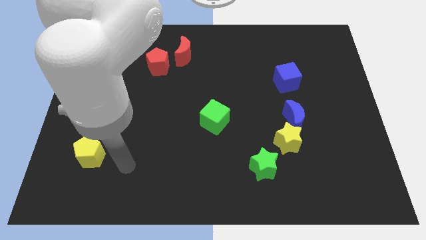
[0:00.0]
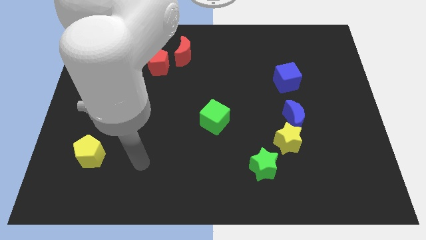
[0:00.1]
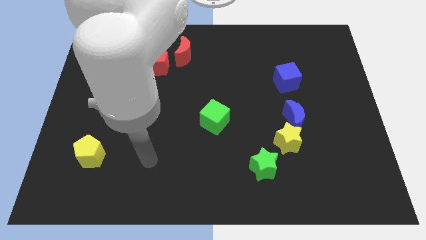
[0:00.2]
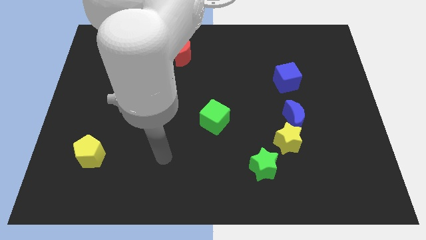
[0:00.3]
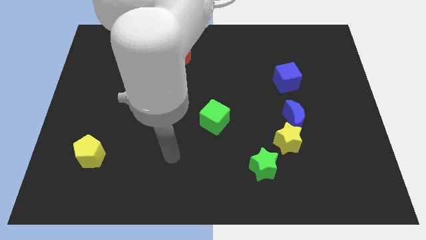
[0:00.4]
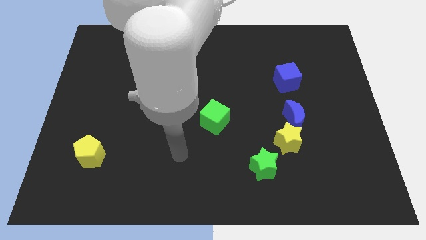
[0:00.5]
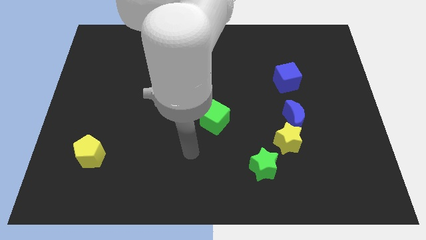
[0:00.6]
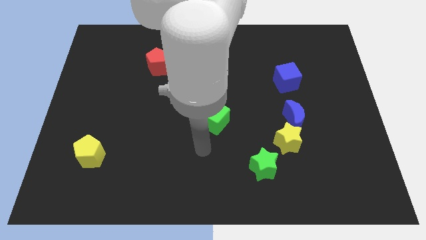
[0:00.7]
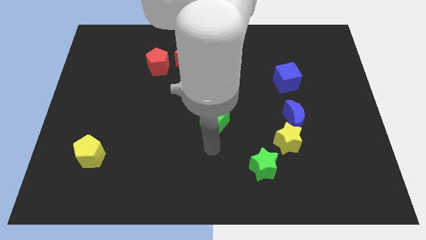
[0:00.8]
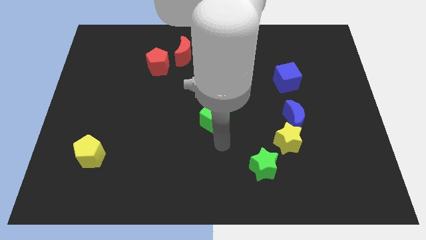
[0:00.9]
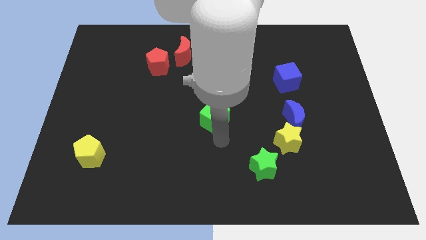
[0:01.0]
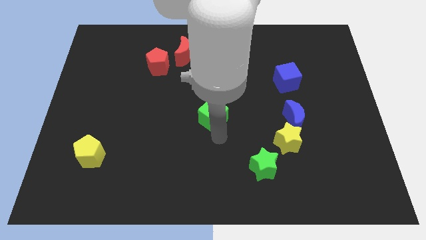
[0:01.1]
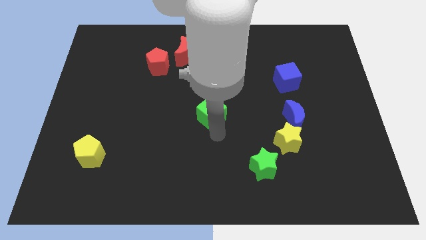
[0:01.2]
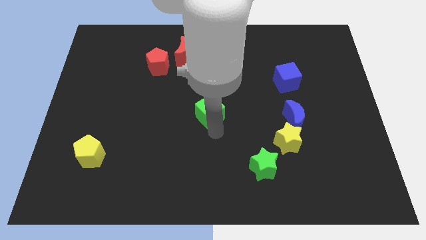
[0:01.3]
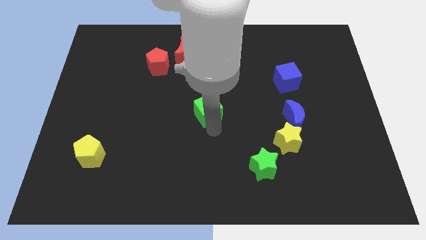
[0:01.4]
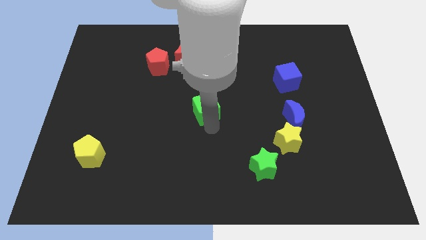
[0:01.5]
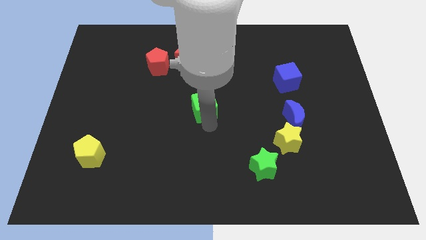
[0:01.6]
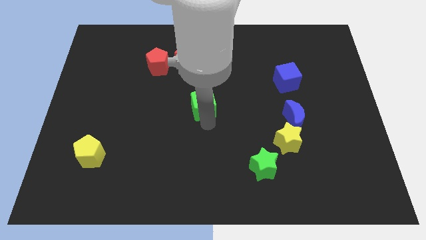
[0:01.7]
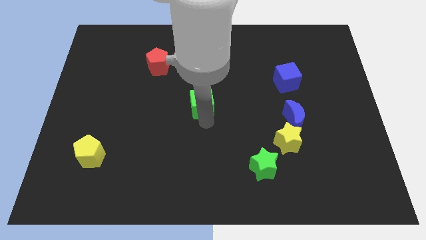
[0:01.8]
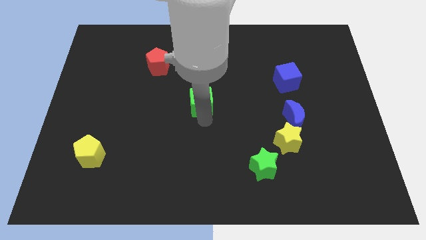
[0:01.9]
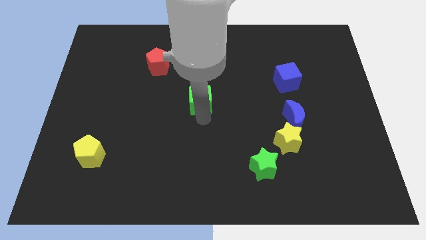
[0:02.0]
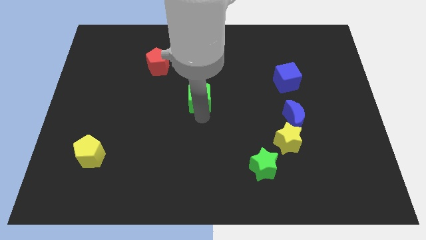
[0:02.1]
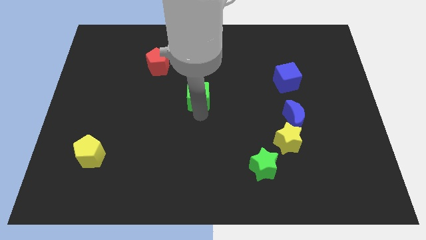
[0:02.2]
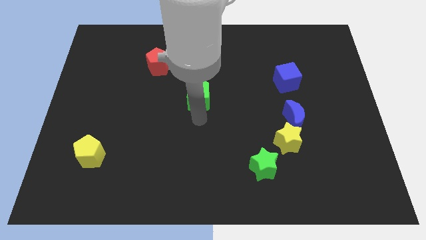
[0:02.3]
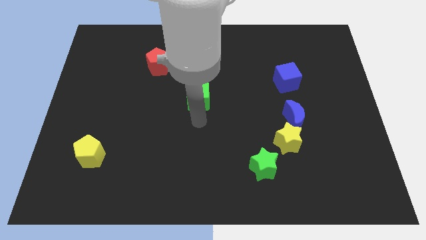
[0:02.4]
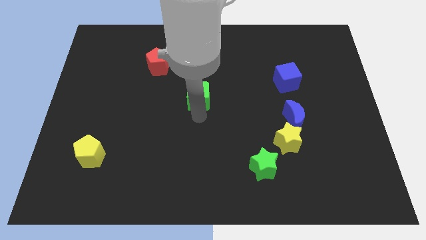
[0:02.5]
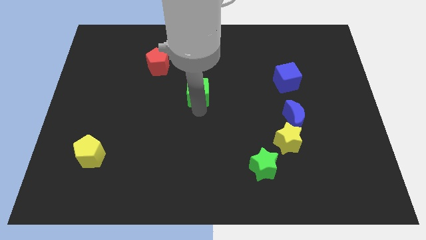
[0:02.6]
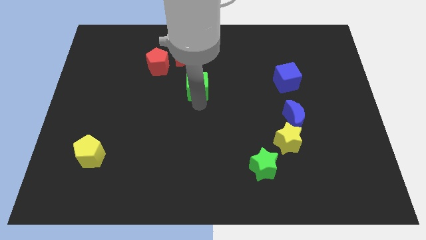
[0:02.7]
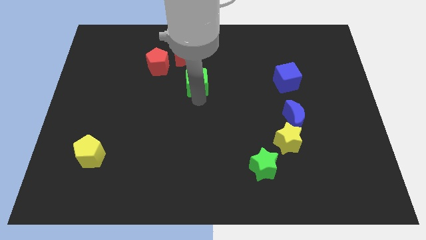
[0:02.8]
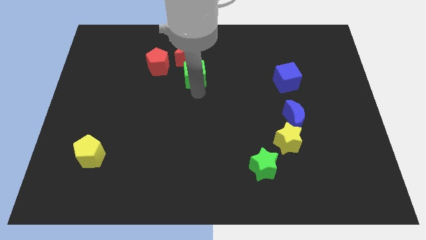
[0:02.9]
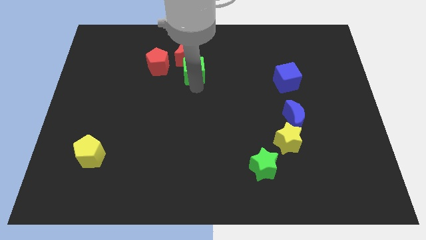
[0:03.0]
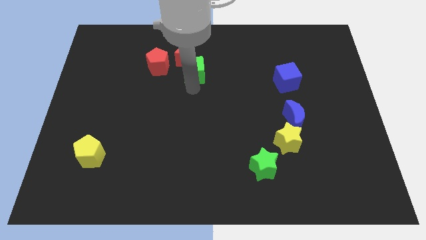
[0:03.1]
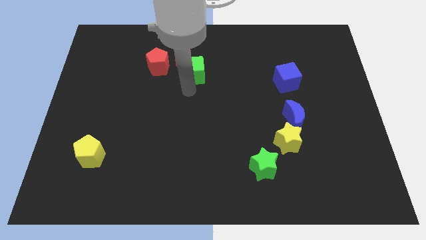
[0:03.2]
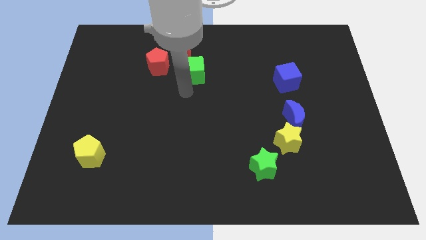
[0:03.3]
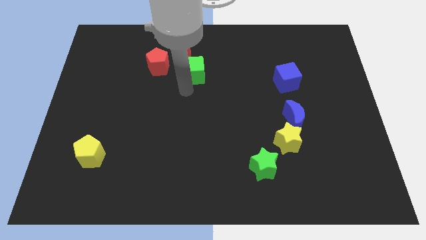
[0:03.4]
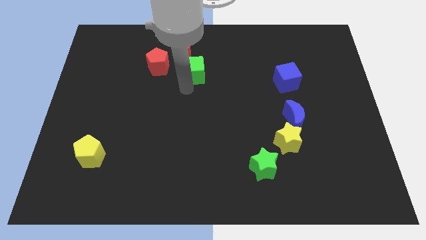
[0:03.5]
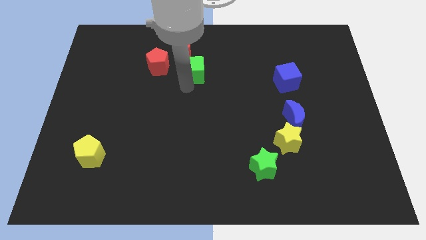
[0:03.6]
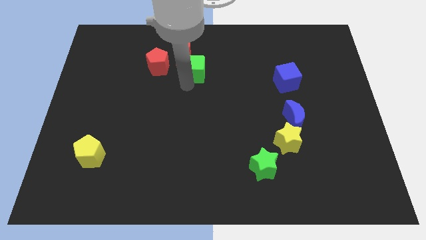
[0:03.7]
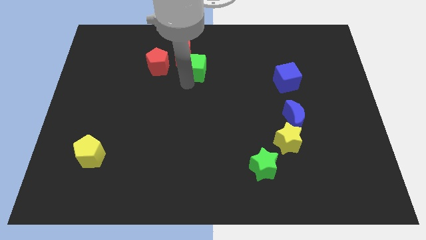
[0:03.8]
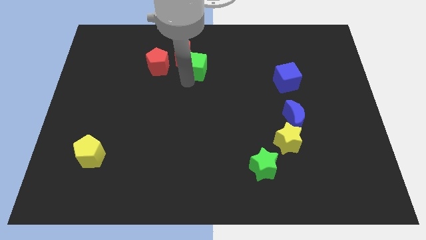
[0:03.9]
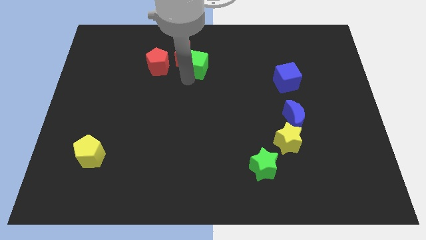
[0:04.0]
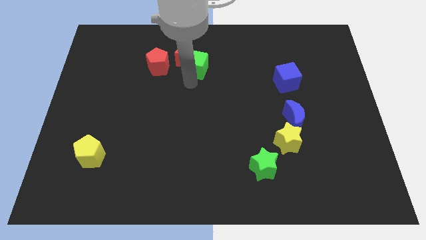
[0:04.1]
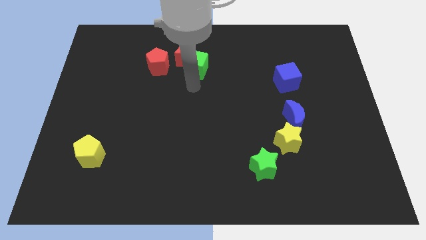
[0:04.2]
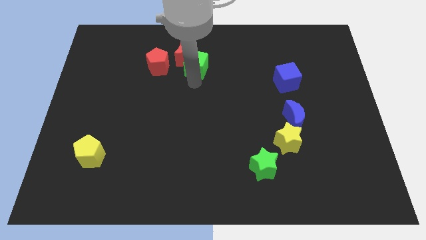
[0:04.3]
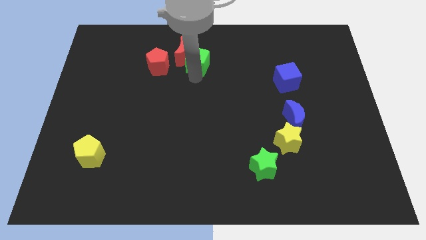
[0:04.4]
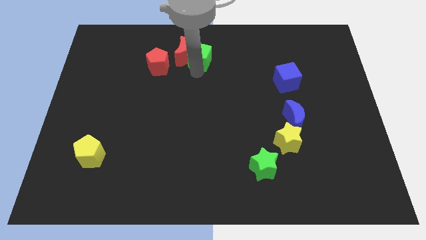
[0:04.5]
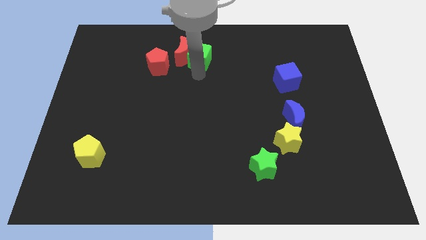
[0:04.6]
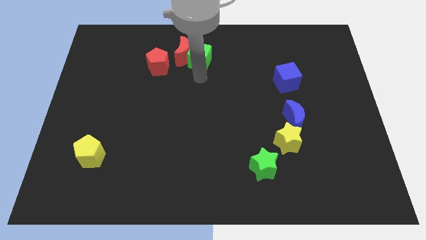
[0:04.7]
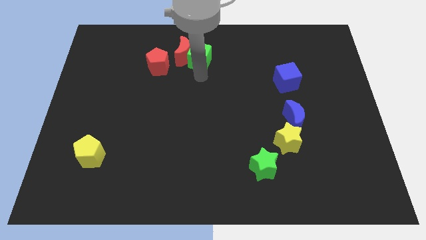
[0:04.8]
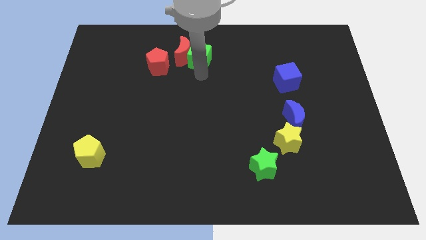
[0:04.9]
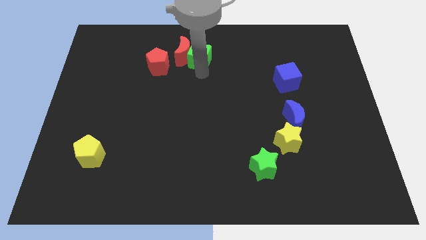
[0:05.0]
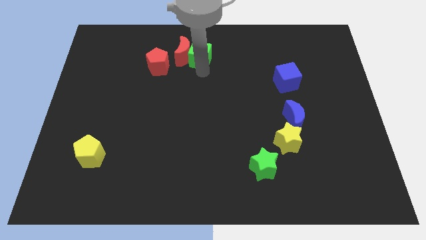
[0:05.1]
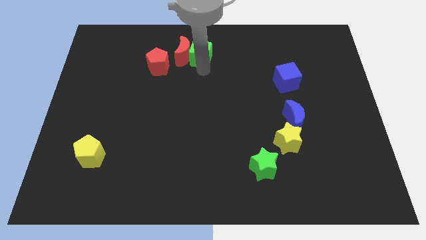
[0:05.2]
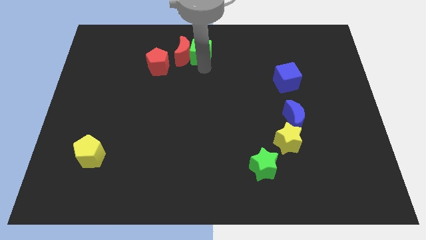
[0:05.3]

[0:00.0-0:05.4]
push the green cube to the top side

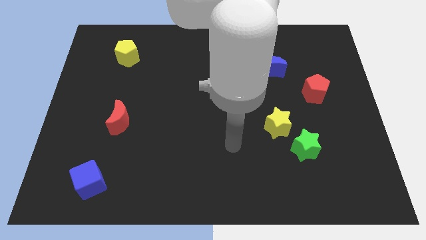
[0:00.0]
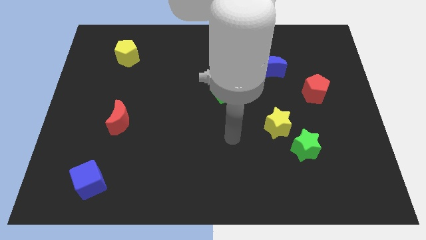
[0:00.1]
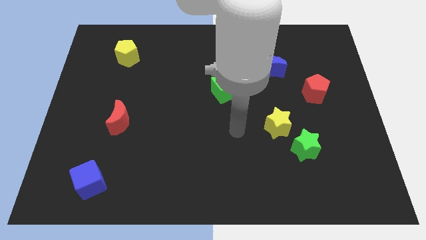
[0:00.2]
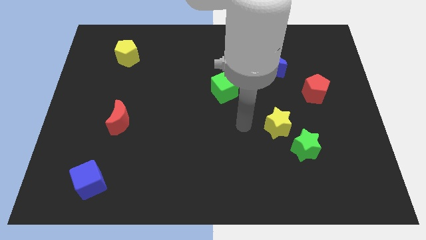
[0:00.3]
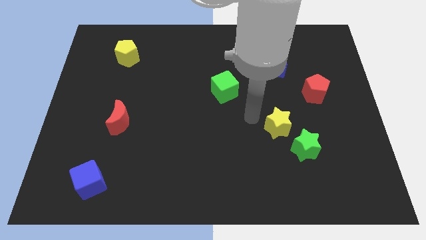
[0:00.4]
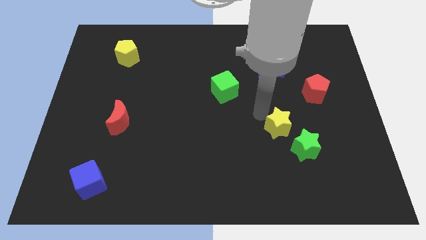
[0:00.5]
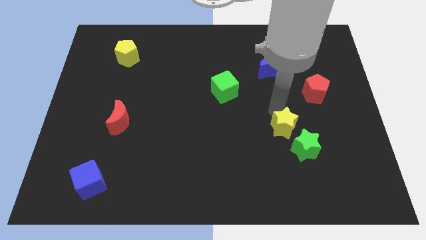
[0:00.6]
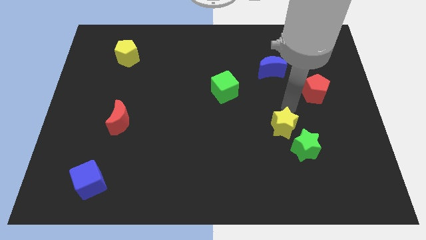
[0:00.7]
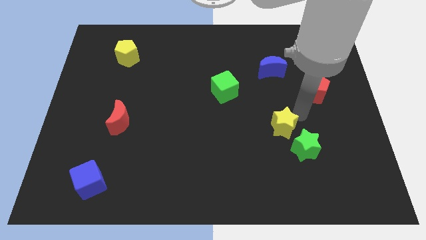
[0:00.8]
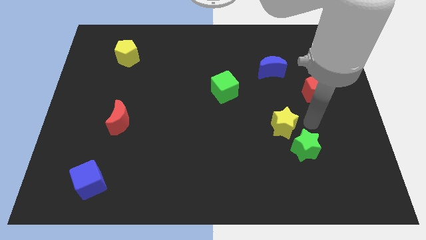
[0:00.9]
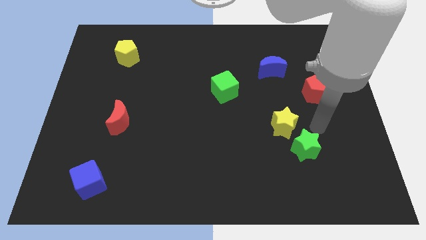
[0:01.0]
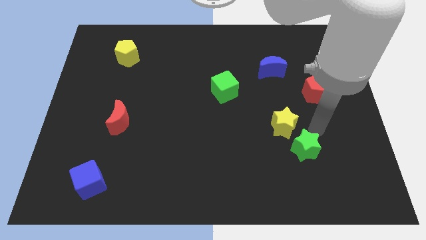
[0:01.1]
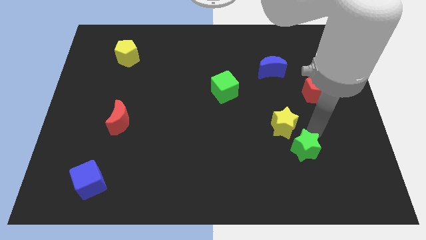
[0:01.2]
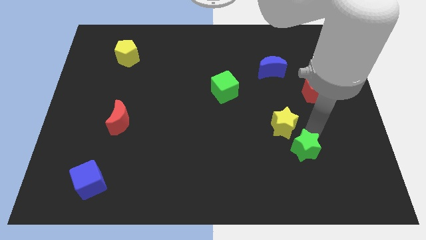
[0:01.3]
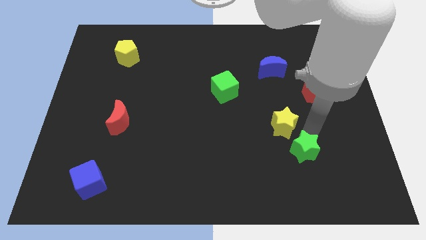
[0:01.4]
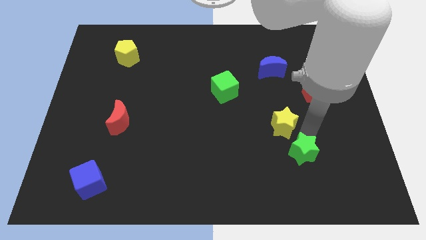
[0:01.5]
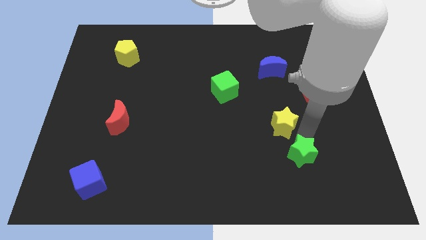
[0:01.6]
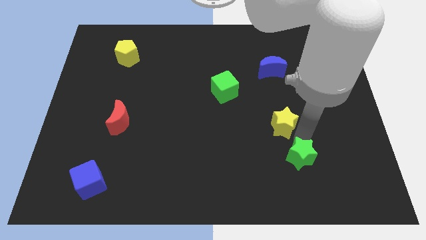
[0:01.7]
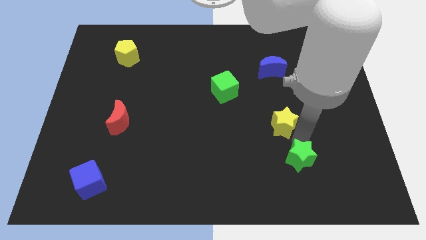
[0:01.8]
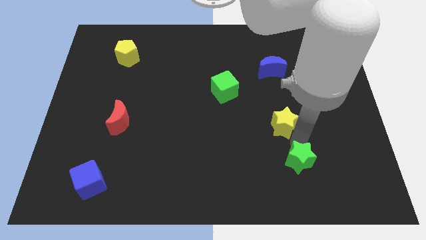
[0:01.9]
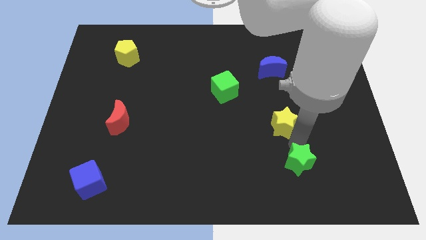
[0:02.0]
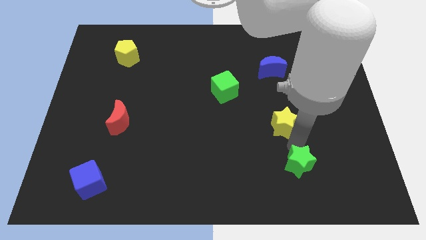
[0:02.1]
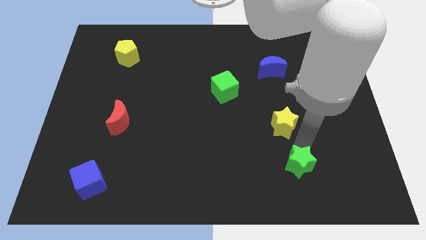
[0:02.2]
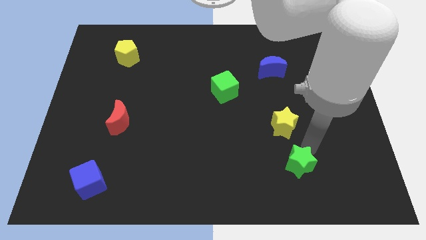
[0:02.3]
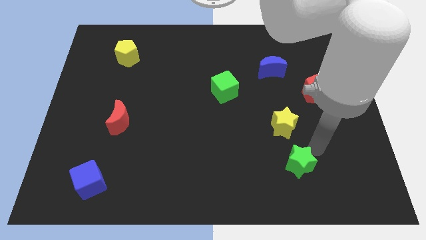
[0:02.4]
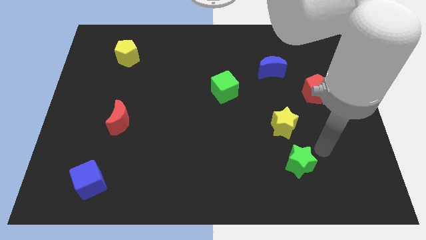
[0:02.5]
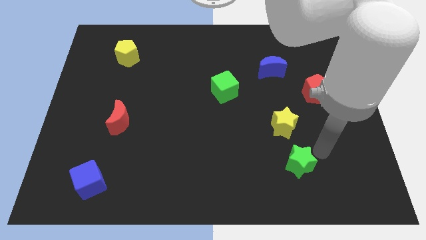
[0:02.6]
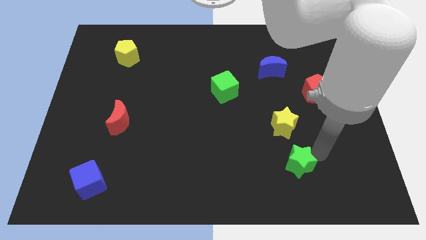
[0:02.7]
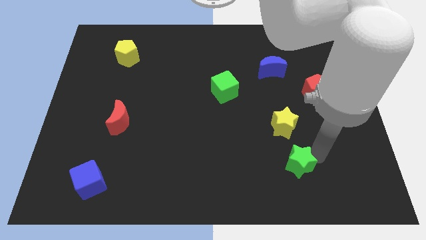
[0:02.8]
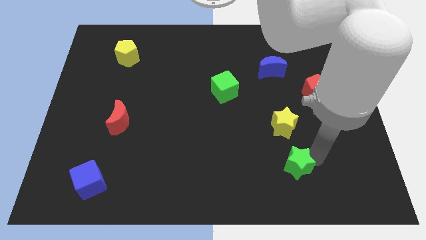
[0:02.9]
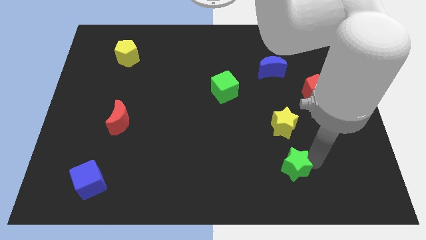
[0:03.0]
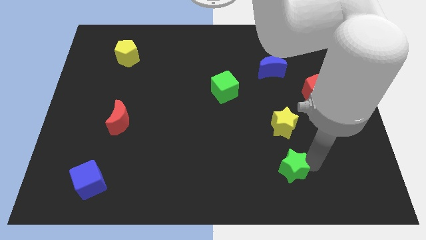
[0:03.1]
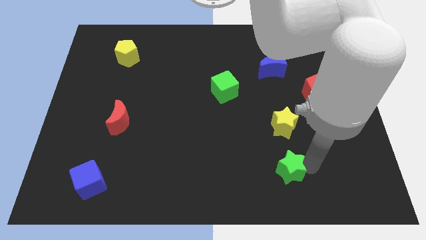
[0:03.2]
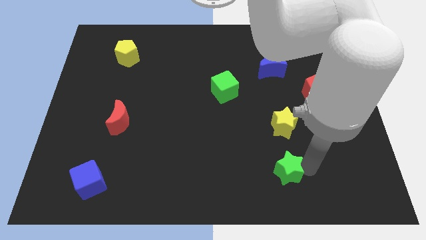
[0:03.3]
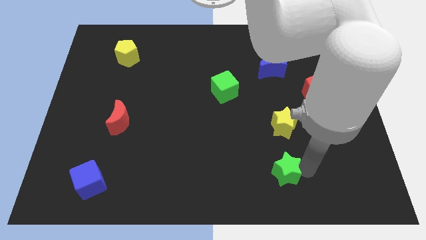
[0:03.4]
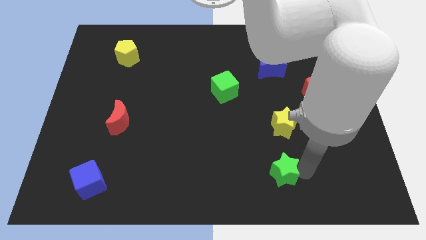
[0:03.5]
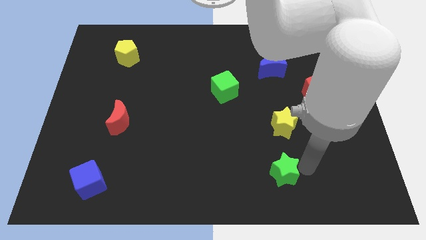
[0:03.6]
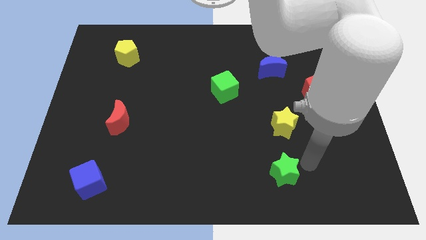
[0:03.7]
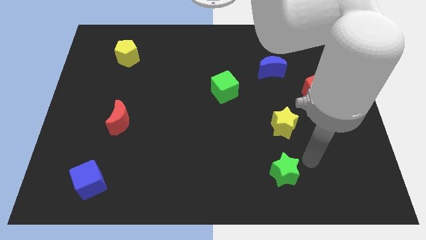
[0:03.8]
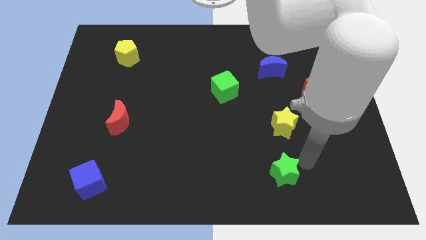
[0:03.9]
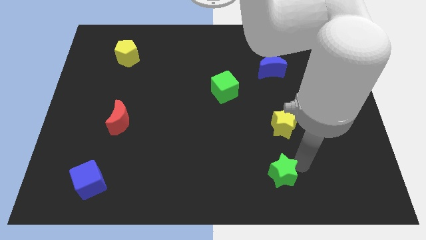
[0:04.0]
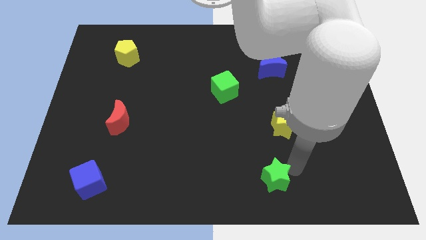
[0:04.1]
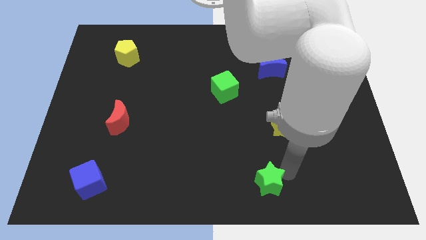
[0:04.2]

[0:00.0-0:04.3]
move the green star to the bottom
